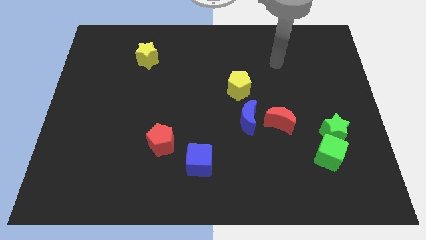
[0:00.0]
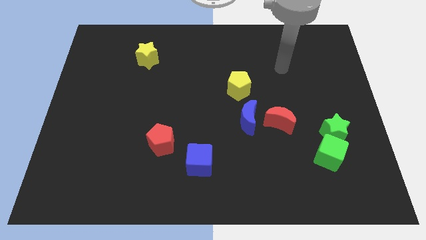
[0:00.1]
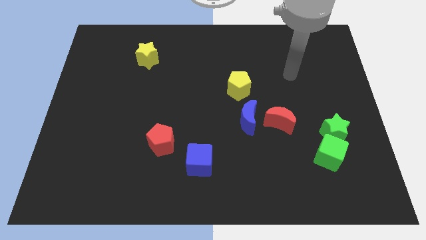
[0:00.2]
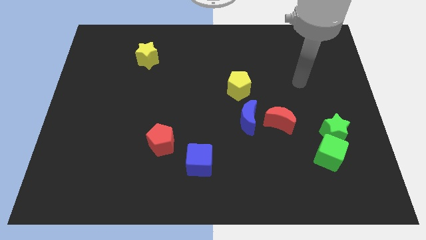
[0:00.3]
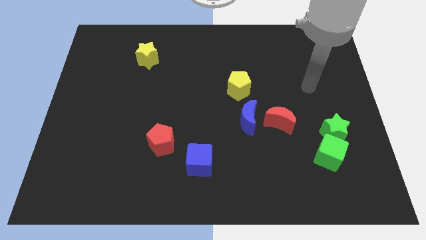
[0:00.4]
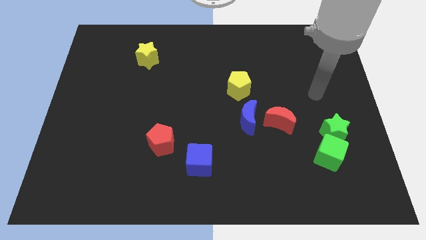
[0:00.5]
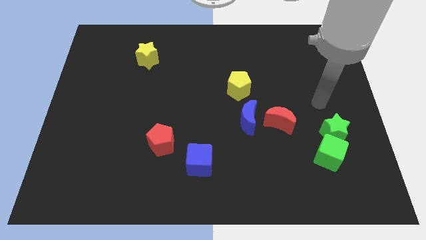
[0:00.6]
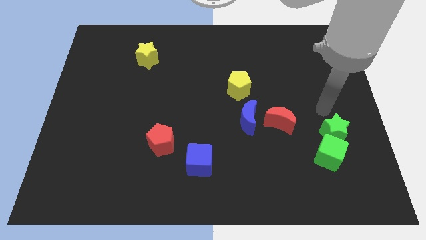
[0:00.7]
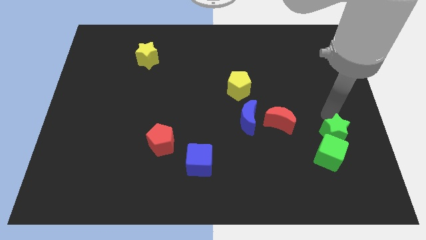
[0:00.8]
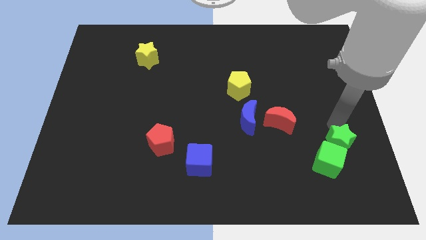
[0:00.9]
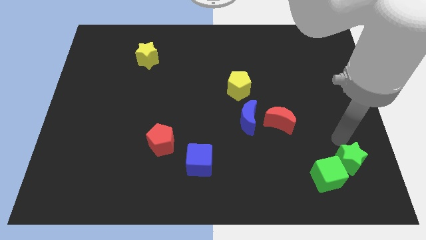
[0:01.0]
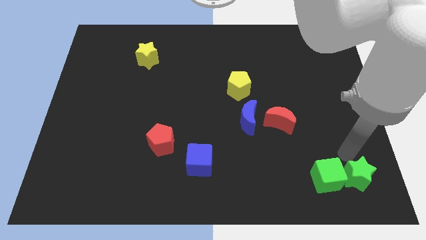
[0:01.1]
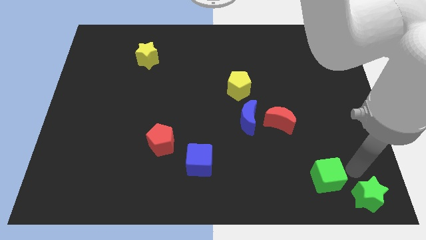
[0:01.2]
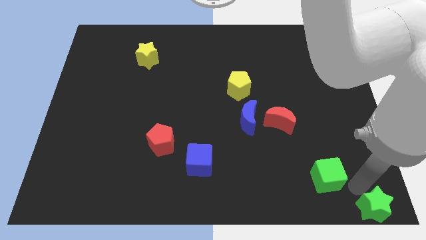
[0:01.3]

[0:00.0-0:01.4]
pull the green cube apart from the green star

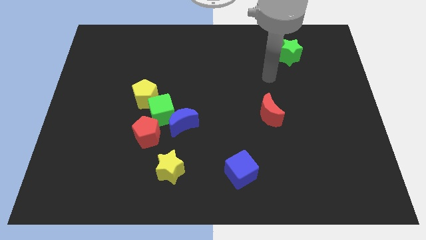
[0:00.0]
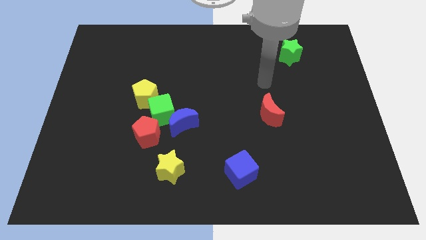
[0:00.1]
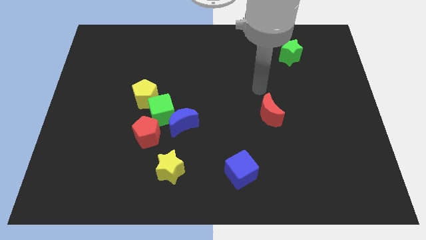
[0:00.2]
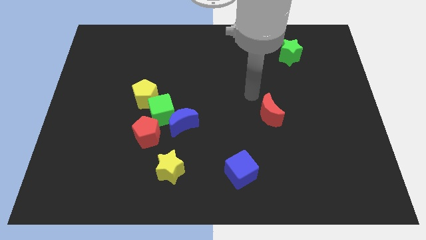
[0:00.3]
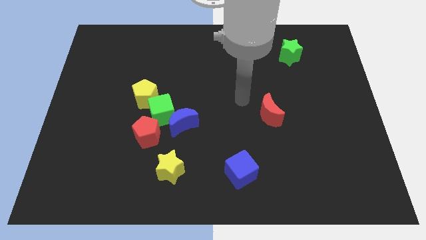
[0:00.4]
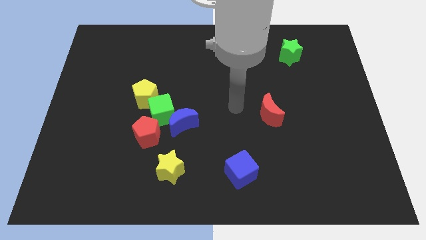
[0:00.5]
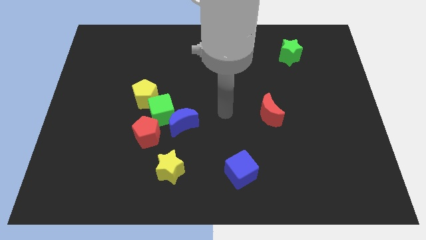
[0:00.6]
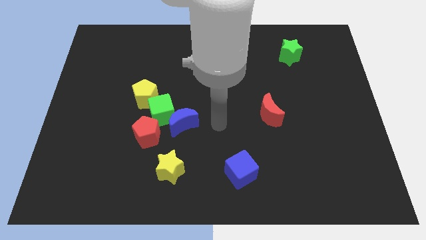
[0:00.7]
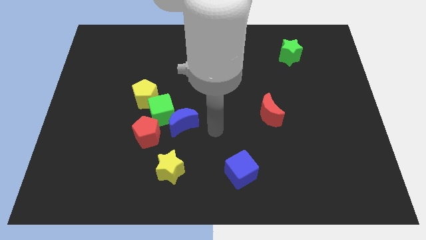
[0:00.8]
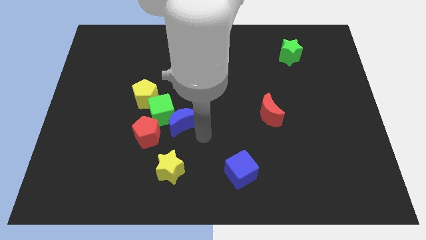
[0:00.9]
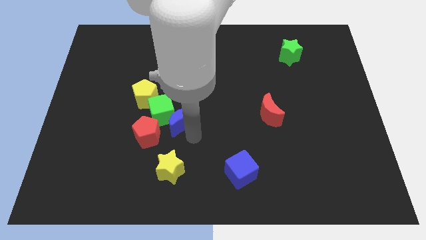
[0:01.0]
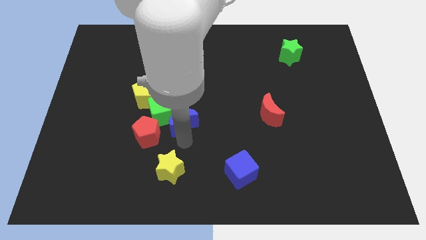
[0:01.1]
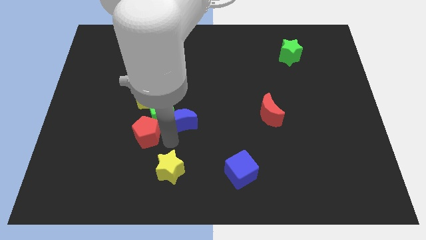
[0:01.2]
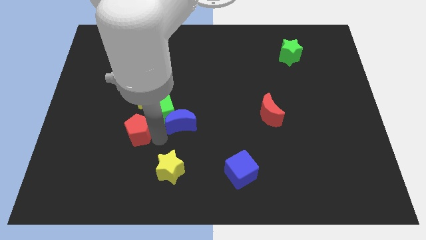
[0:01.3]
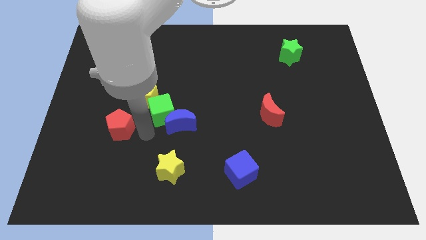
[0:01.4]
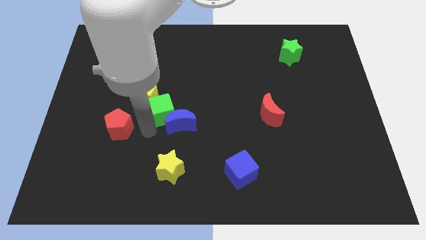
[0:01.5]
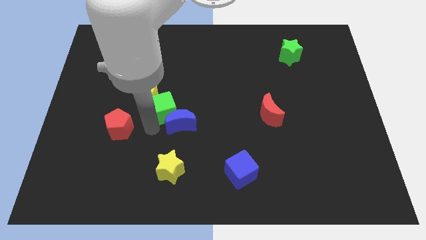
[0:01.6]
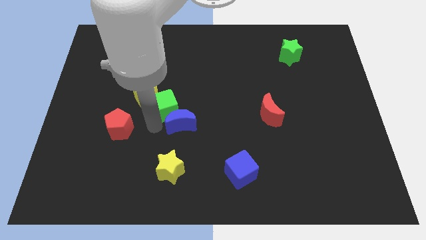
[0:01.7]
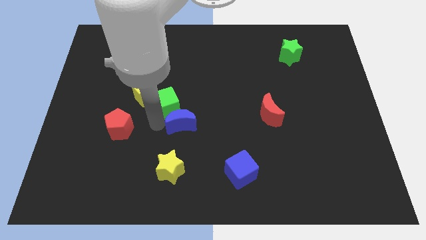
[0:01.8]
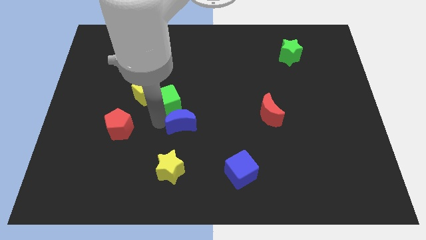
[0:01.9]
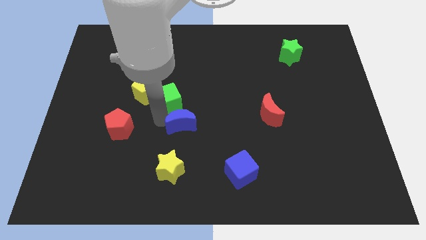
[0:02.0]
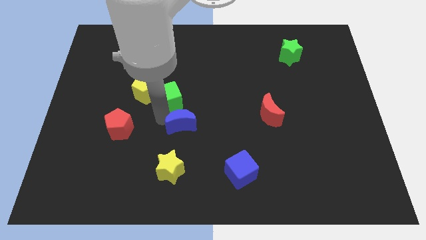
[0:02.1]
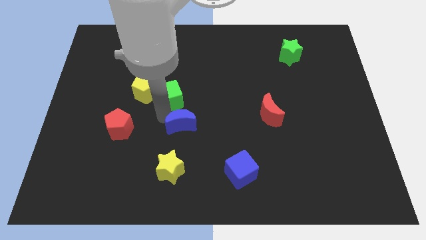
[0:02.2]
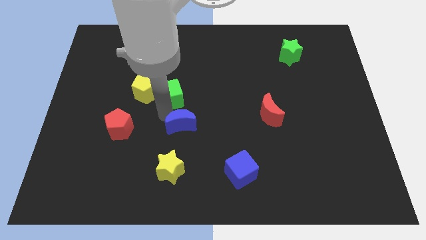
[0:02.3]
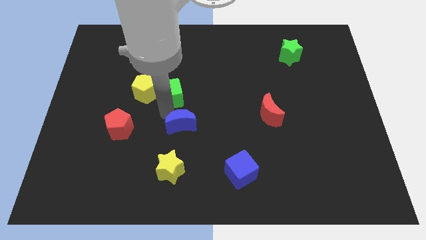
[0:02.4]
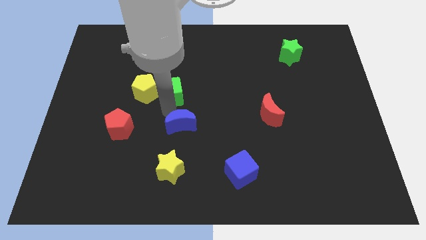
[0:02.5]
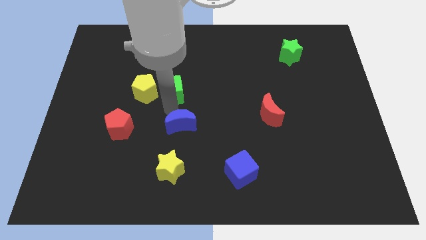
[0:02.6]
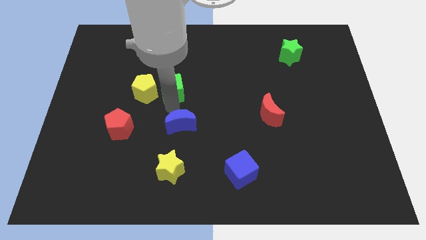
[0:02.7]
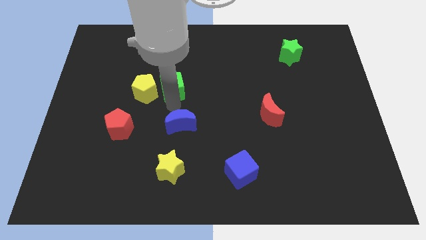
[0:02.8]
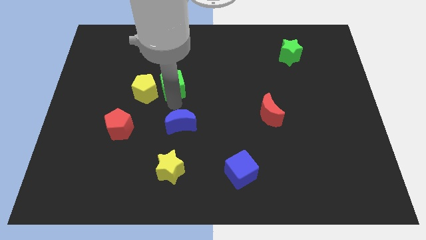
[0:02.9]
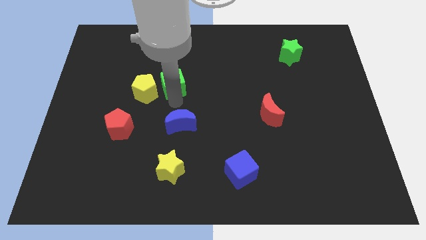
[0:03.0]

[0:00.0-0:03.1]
move the green cube away from the blue moon, yellow pentagon, and red pentagon

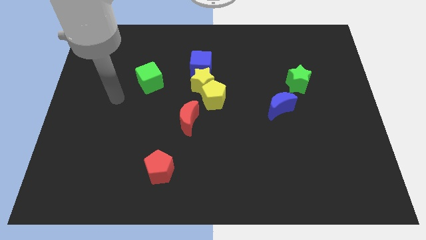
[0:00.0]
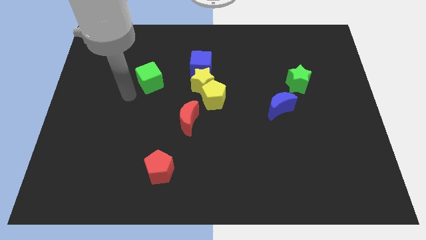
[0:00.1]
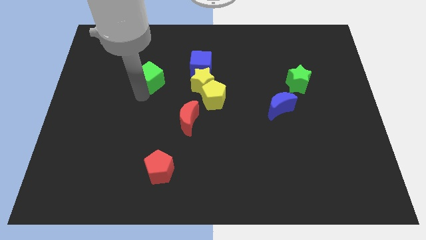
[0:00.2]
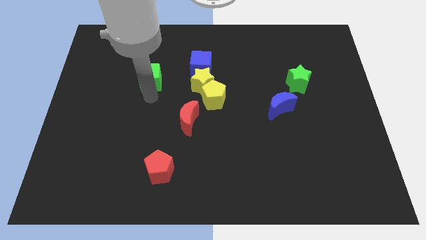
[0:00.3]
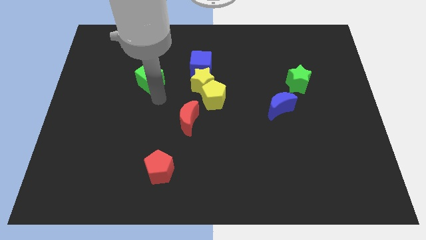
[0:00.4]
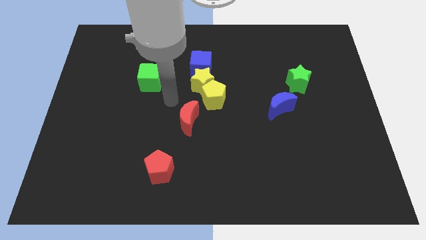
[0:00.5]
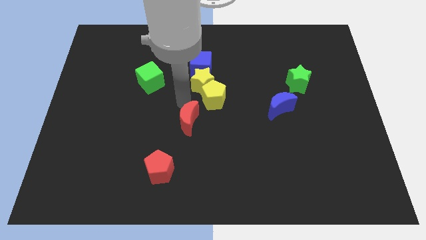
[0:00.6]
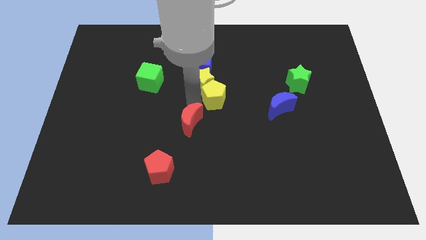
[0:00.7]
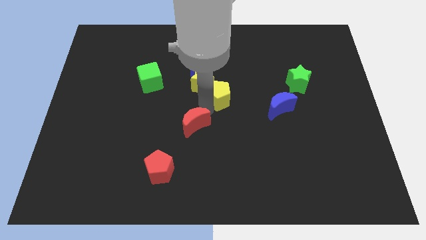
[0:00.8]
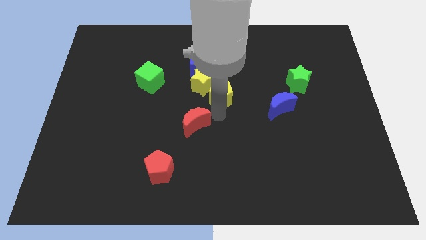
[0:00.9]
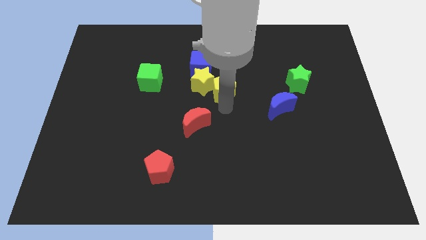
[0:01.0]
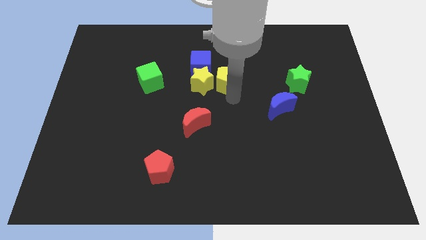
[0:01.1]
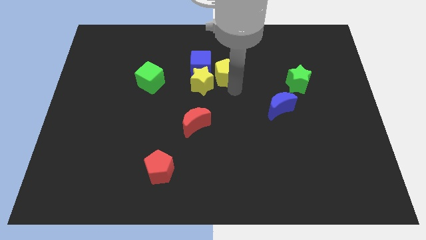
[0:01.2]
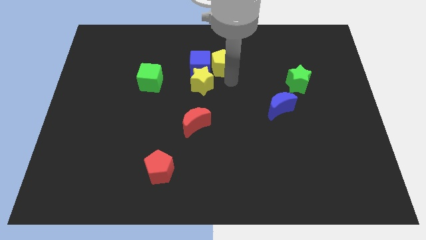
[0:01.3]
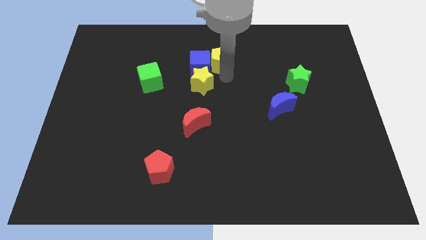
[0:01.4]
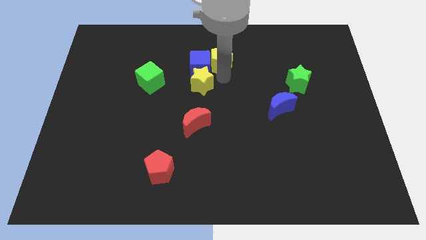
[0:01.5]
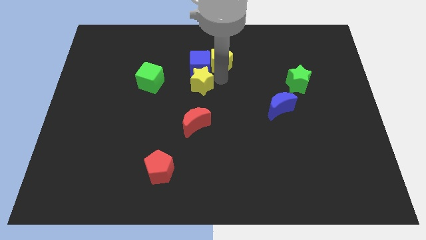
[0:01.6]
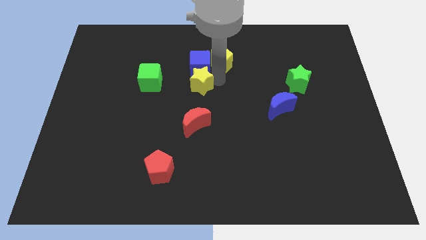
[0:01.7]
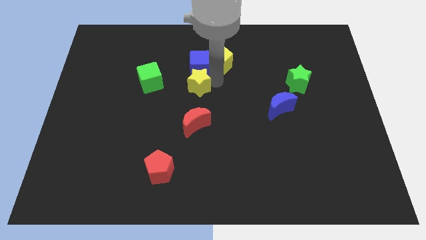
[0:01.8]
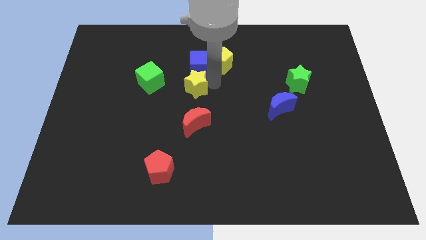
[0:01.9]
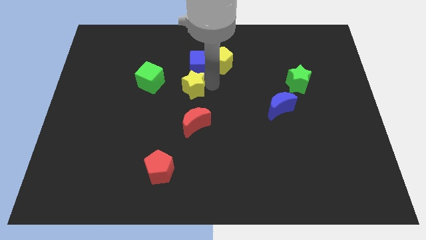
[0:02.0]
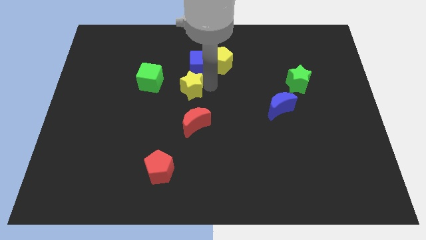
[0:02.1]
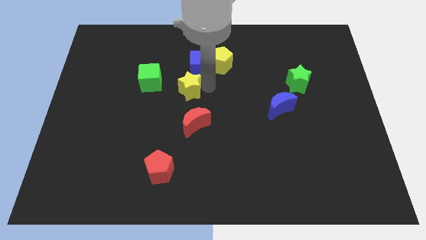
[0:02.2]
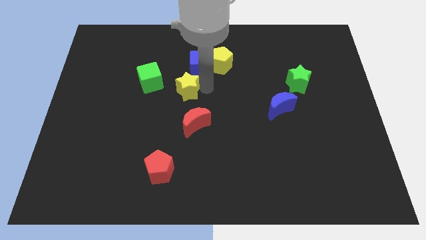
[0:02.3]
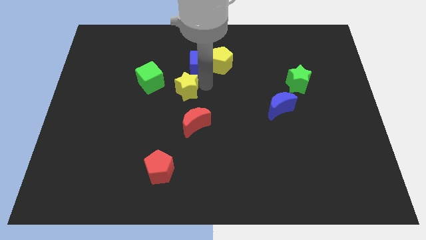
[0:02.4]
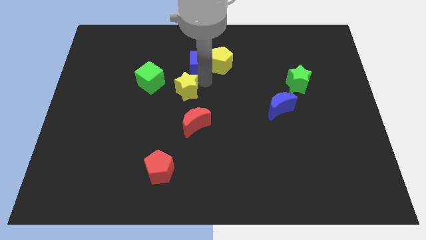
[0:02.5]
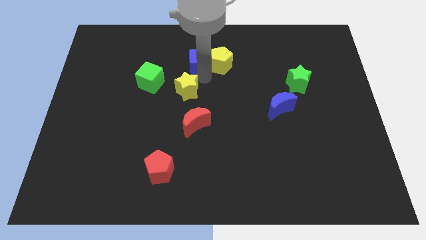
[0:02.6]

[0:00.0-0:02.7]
pull the yellow star apart from the yellow pentagon and blue cube

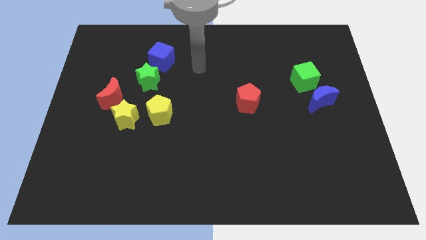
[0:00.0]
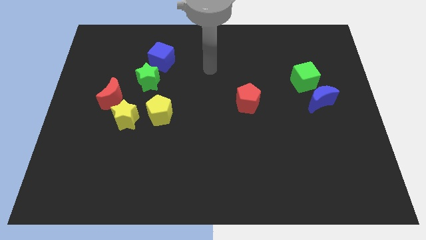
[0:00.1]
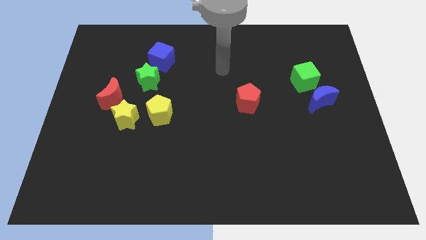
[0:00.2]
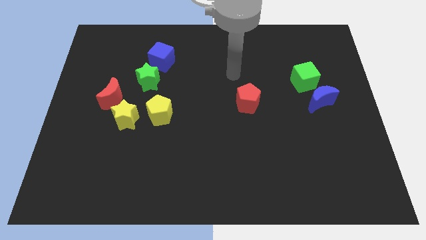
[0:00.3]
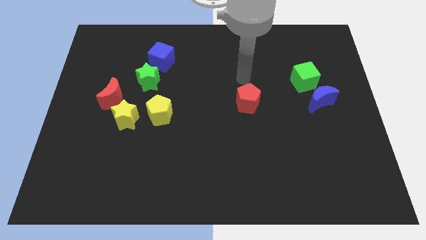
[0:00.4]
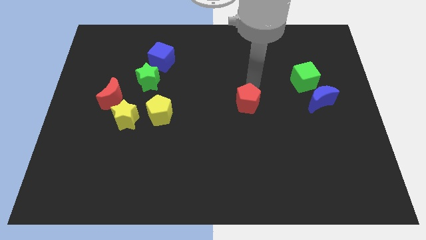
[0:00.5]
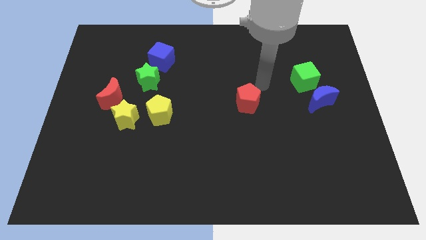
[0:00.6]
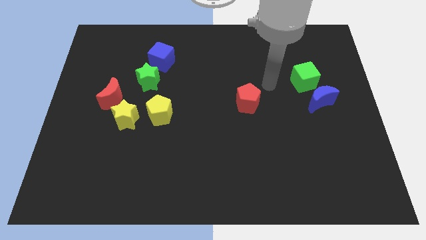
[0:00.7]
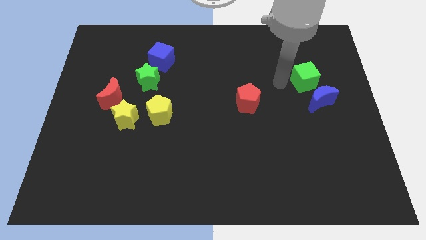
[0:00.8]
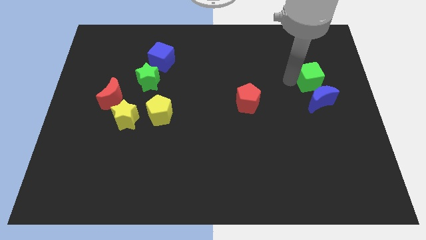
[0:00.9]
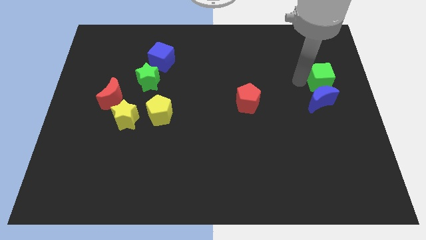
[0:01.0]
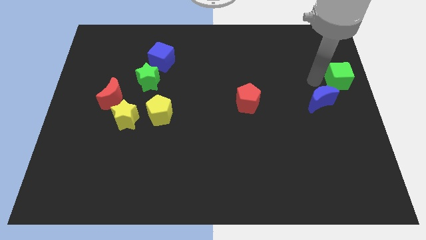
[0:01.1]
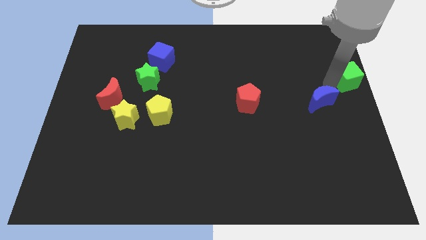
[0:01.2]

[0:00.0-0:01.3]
move the blue moon away from the green cube

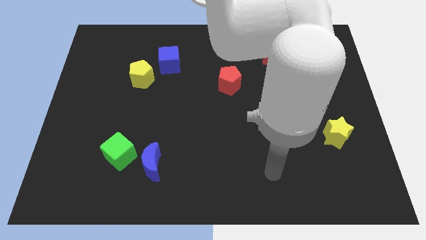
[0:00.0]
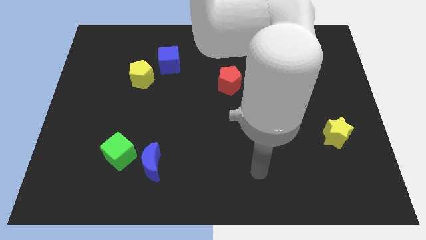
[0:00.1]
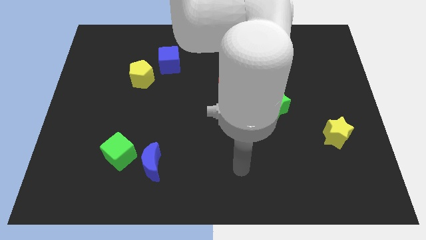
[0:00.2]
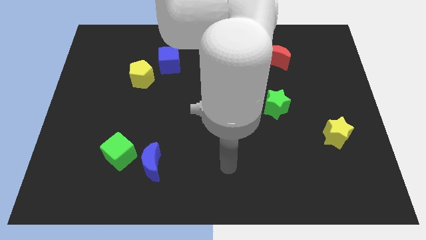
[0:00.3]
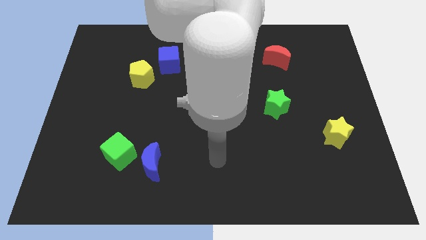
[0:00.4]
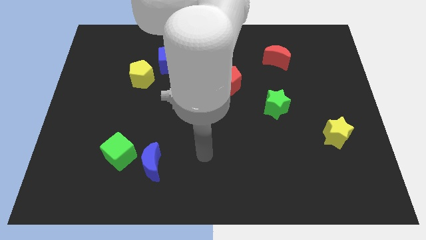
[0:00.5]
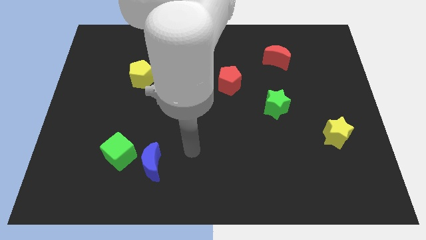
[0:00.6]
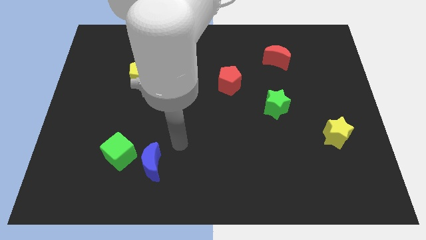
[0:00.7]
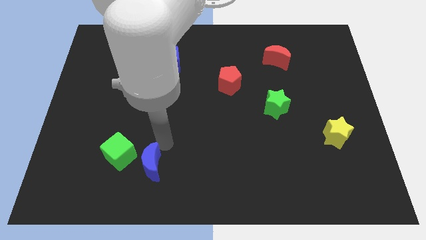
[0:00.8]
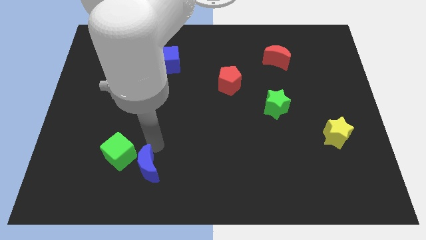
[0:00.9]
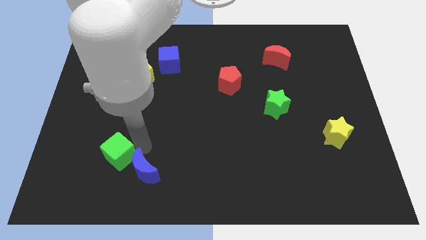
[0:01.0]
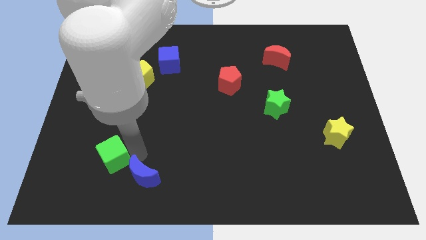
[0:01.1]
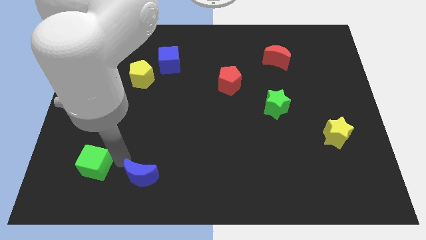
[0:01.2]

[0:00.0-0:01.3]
pull the blue moon apart from the green cube
